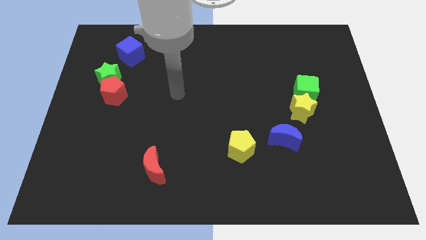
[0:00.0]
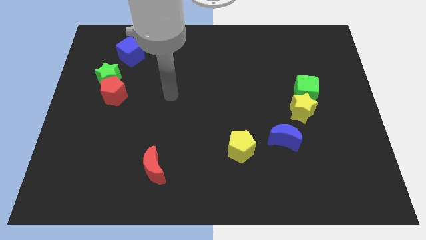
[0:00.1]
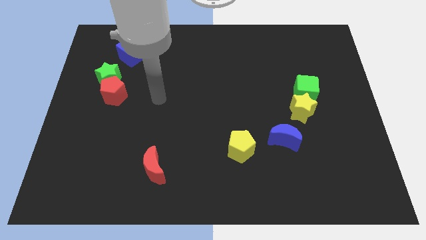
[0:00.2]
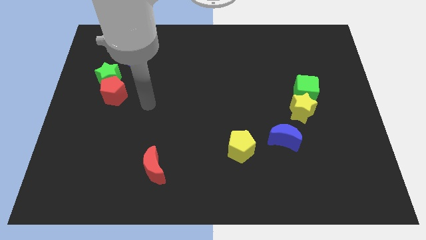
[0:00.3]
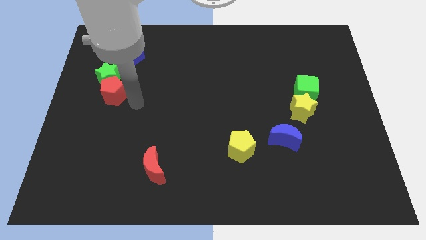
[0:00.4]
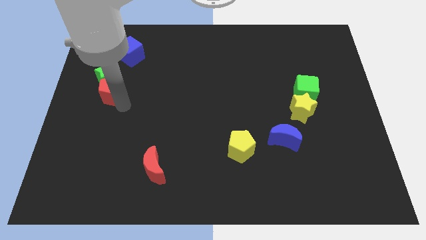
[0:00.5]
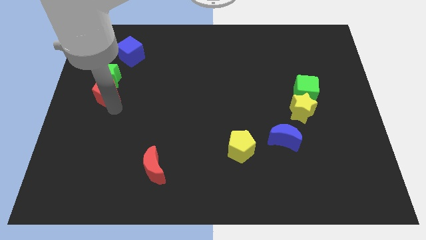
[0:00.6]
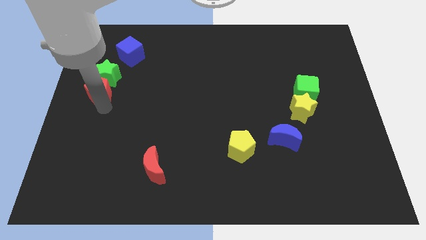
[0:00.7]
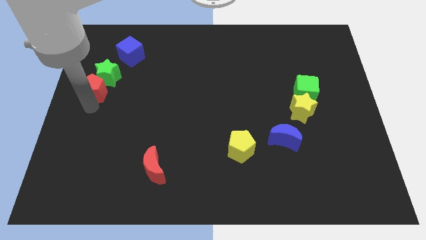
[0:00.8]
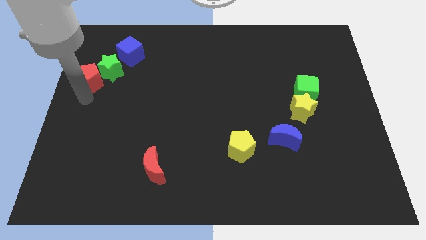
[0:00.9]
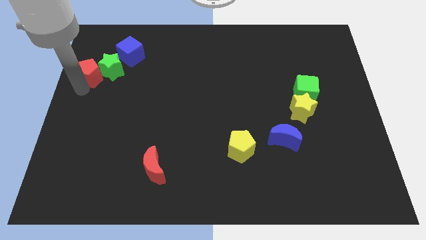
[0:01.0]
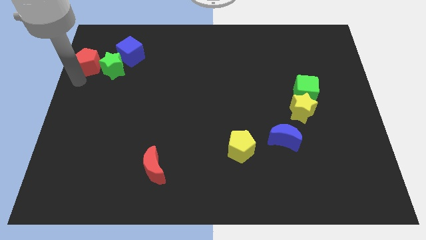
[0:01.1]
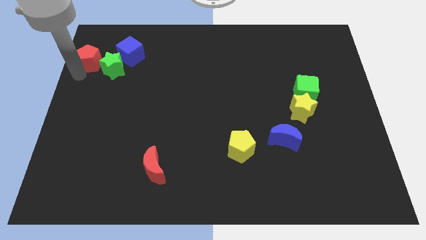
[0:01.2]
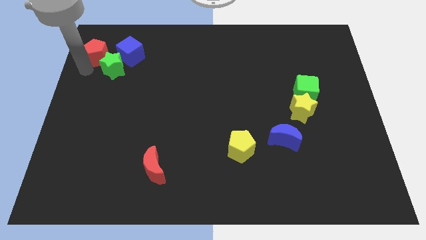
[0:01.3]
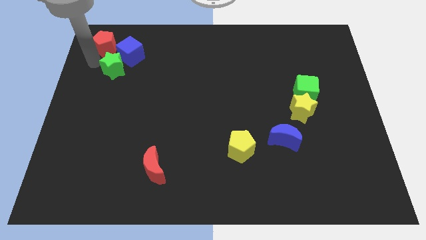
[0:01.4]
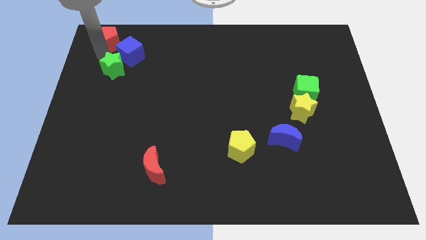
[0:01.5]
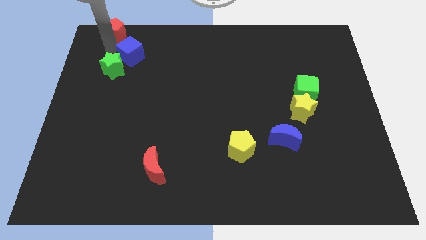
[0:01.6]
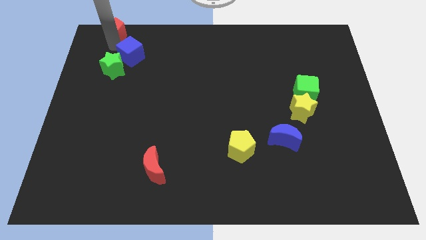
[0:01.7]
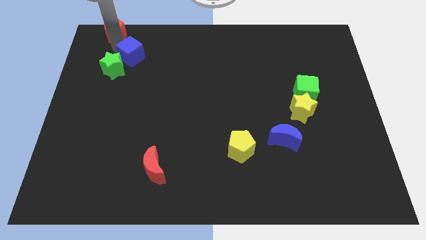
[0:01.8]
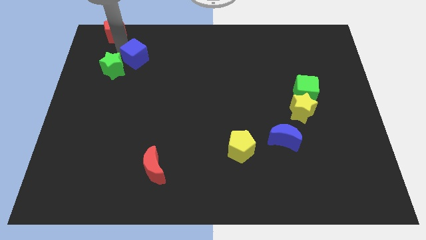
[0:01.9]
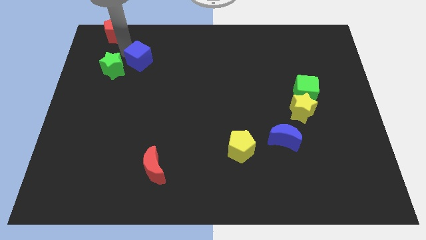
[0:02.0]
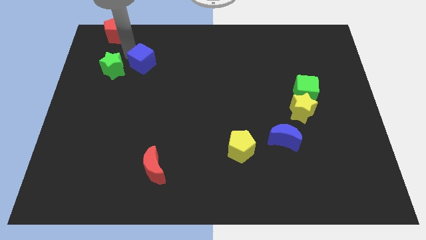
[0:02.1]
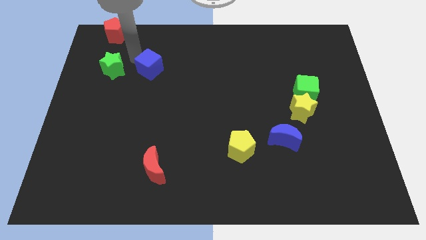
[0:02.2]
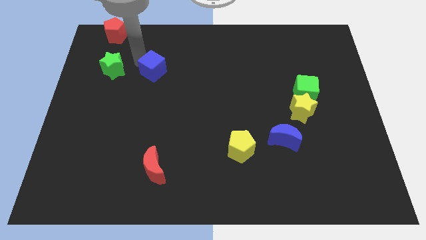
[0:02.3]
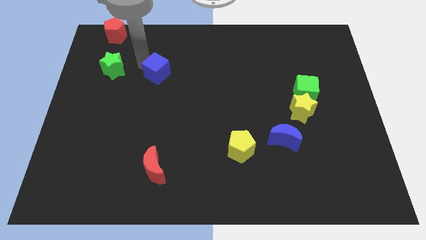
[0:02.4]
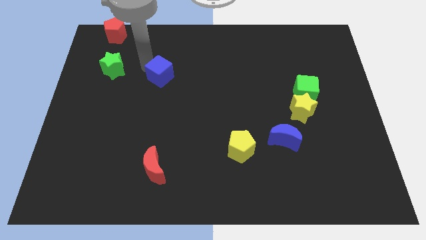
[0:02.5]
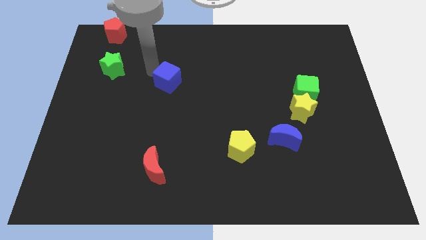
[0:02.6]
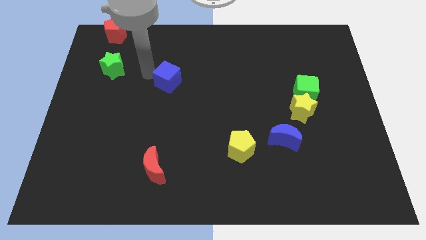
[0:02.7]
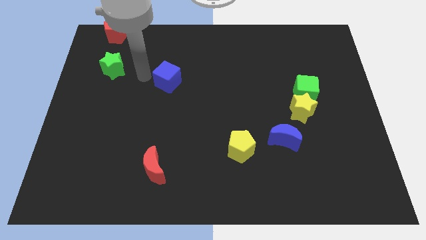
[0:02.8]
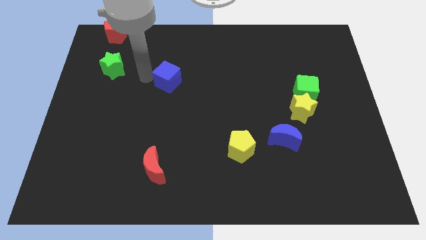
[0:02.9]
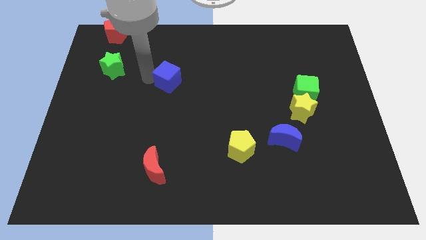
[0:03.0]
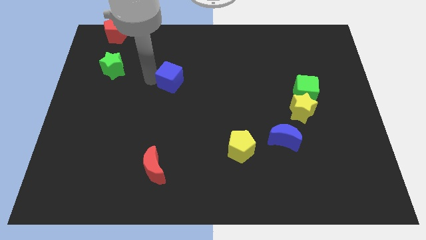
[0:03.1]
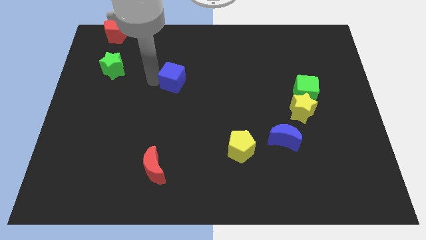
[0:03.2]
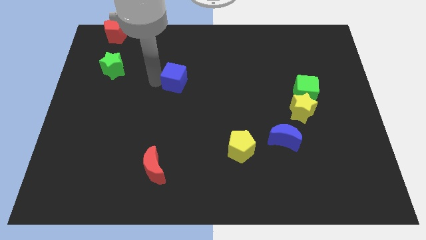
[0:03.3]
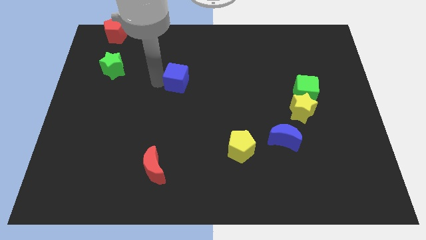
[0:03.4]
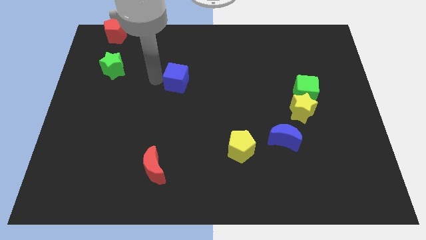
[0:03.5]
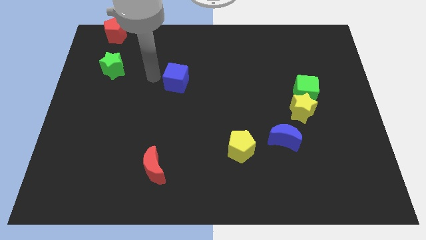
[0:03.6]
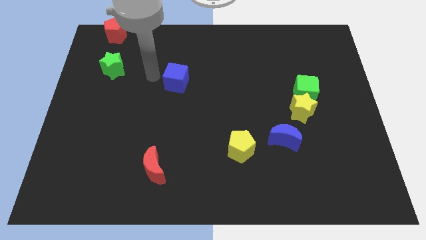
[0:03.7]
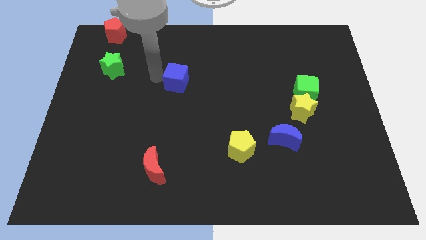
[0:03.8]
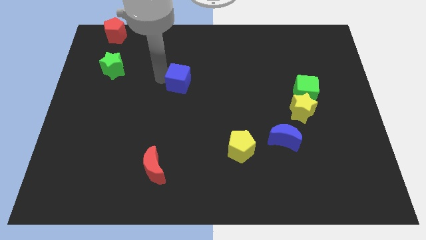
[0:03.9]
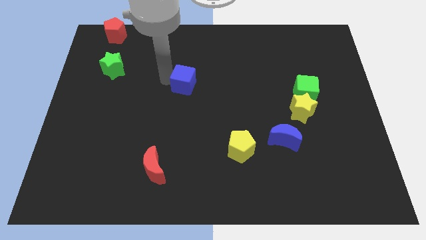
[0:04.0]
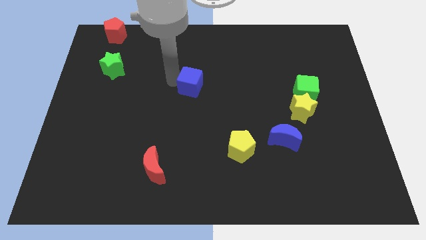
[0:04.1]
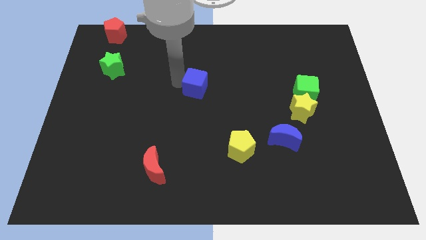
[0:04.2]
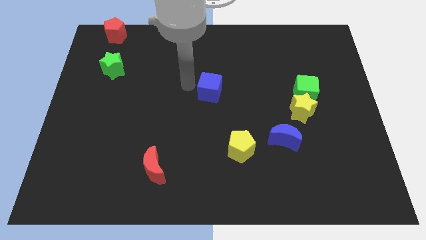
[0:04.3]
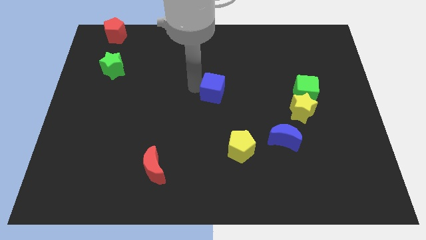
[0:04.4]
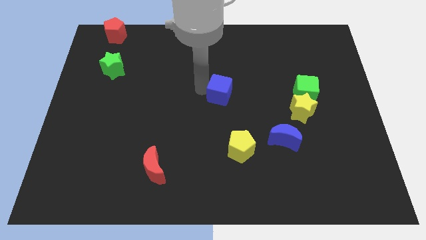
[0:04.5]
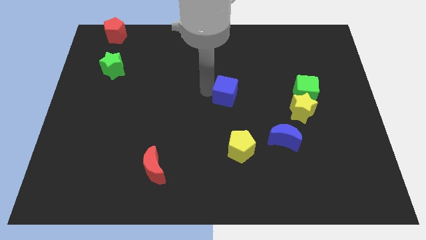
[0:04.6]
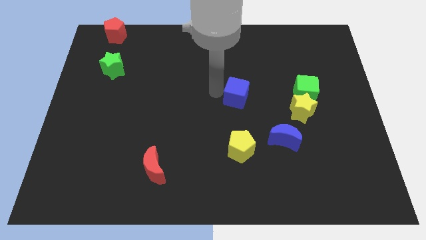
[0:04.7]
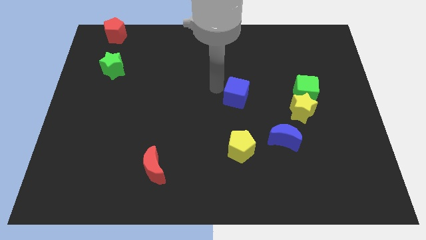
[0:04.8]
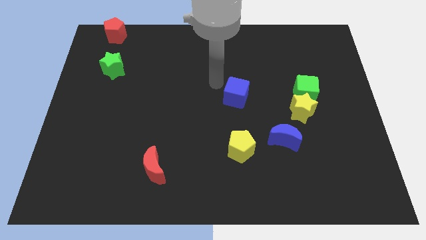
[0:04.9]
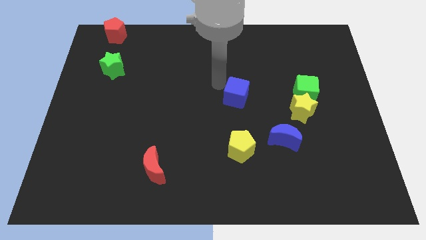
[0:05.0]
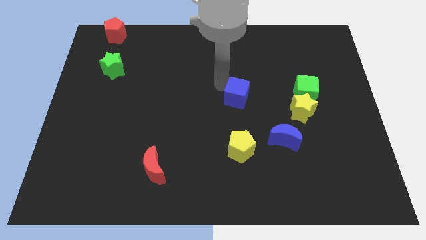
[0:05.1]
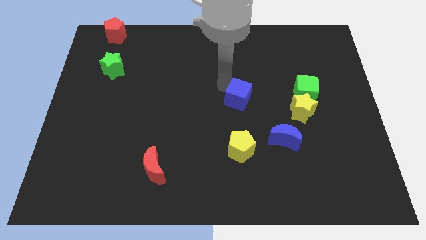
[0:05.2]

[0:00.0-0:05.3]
move the blue cube to the left of the yellow star

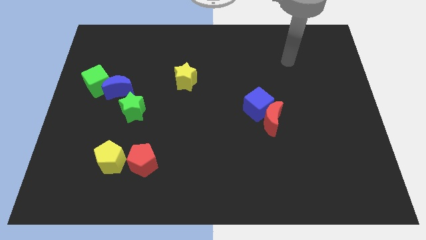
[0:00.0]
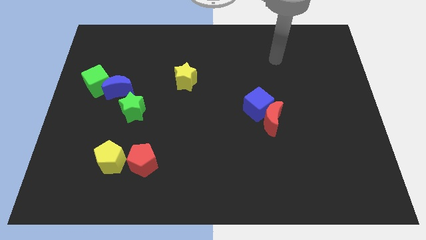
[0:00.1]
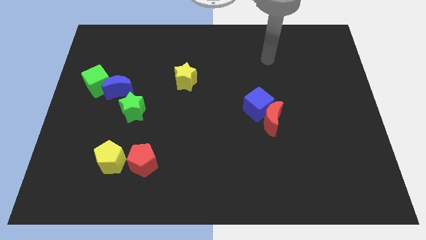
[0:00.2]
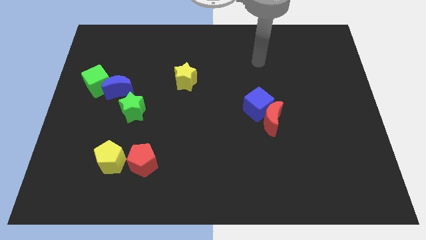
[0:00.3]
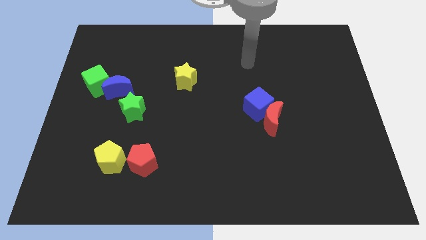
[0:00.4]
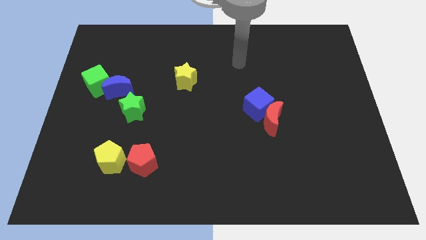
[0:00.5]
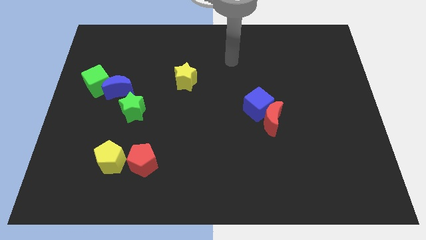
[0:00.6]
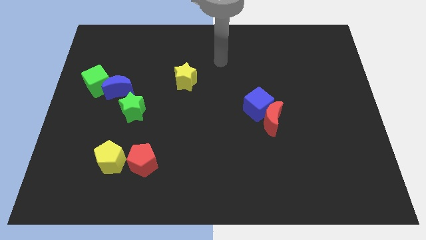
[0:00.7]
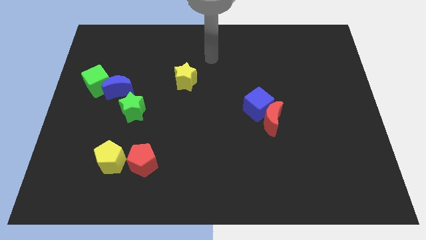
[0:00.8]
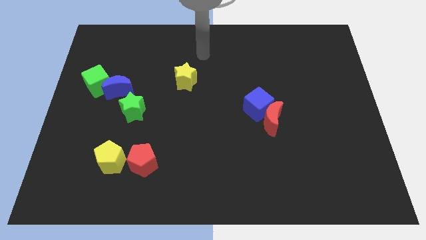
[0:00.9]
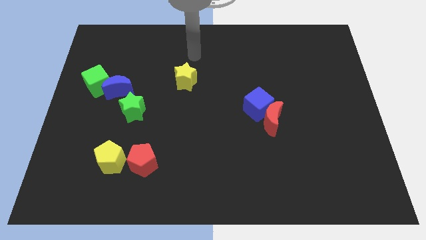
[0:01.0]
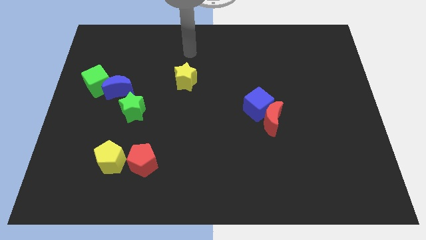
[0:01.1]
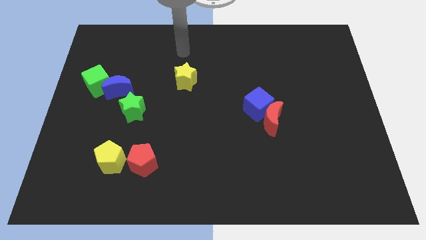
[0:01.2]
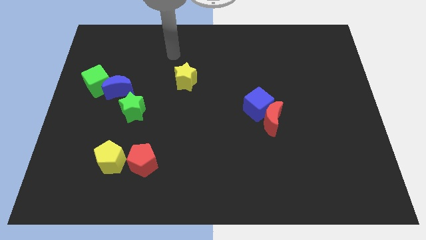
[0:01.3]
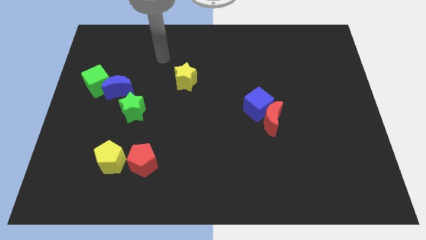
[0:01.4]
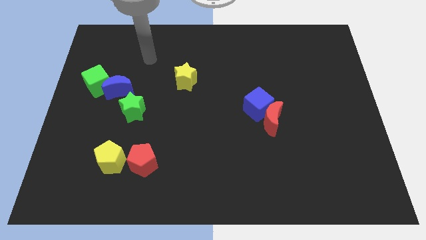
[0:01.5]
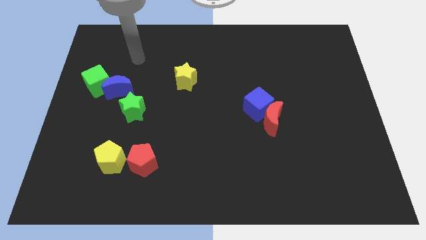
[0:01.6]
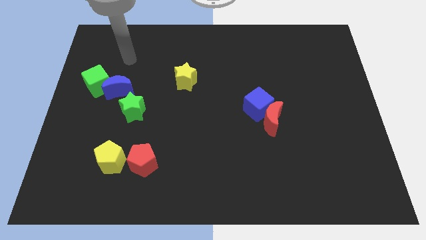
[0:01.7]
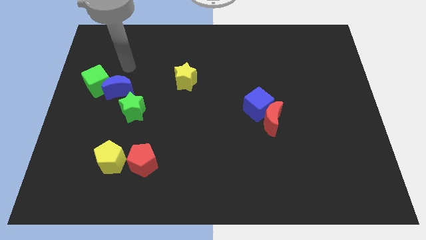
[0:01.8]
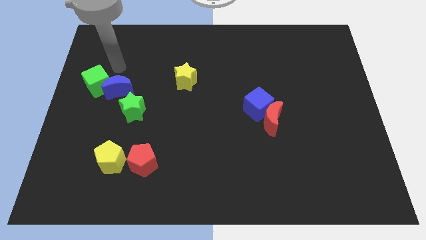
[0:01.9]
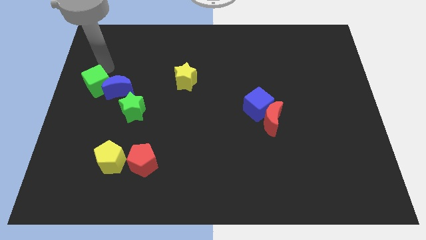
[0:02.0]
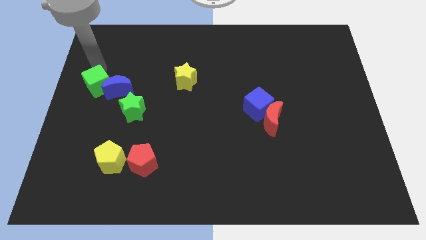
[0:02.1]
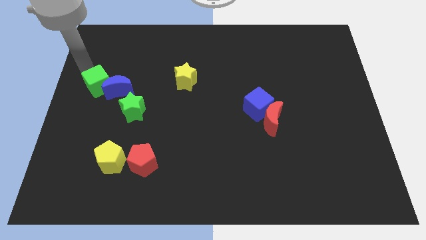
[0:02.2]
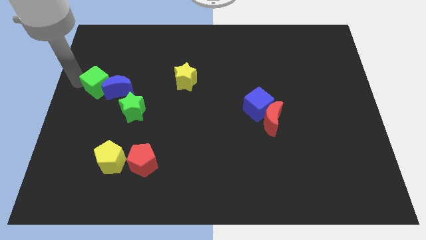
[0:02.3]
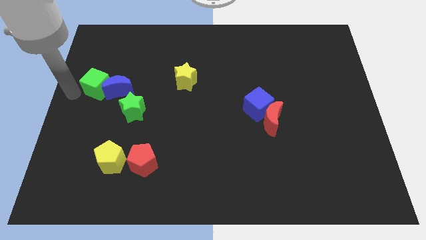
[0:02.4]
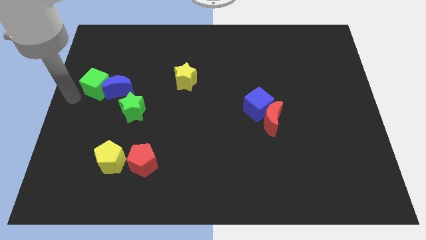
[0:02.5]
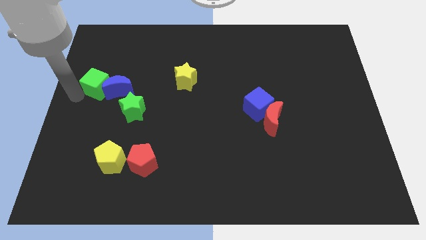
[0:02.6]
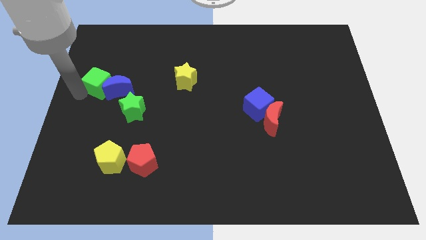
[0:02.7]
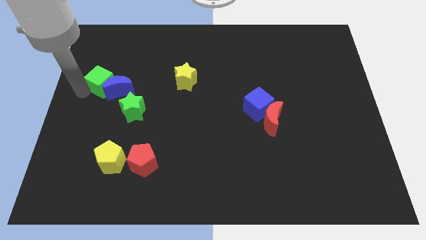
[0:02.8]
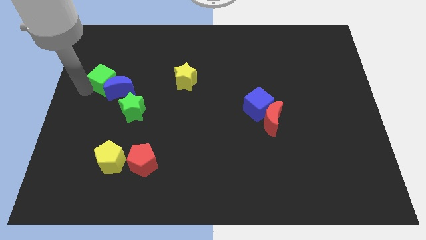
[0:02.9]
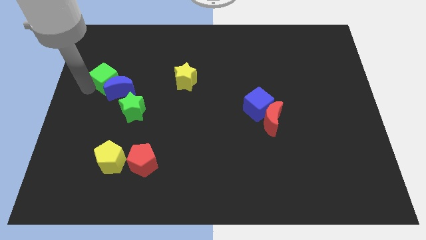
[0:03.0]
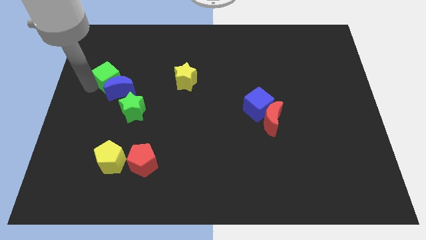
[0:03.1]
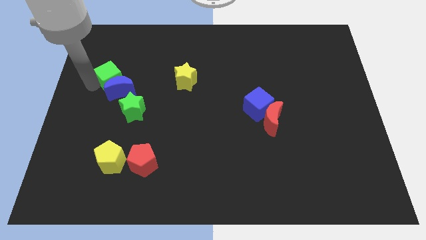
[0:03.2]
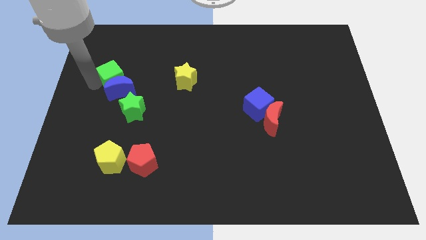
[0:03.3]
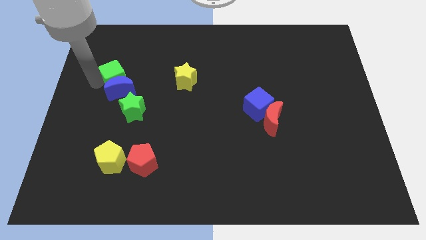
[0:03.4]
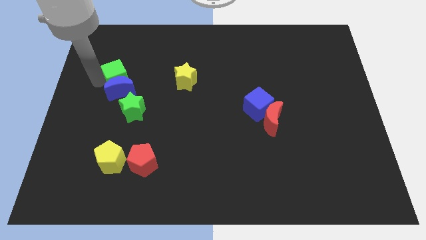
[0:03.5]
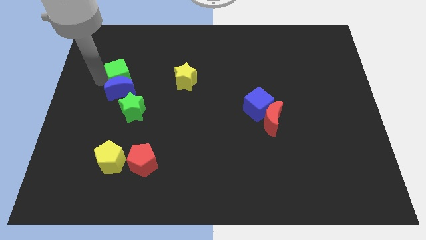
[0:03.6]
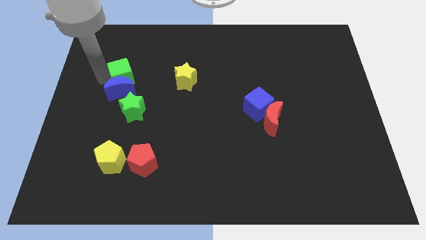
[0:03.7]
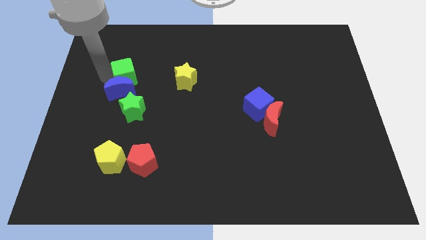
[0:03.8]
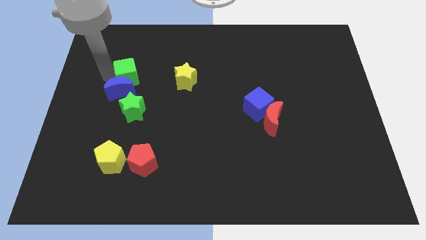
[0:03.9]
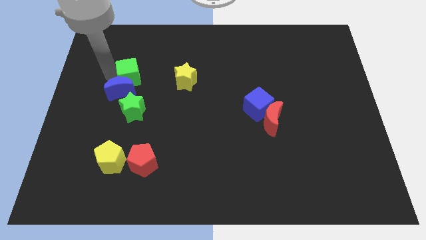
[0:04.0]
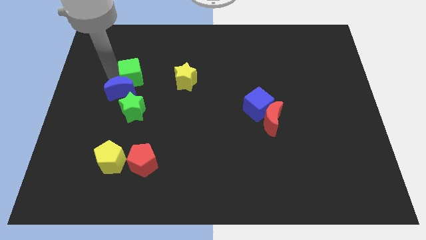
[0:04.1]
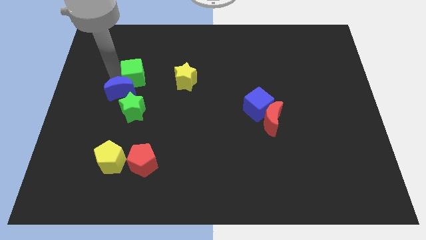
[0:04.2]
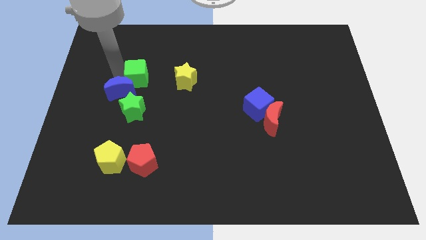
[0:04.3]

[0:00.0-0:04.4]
push the green cube to the right of the blue moon
